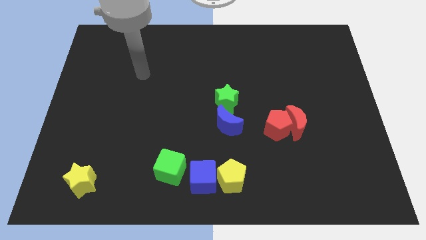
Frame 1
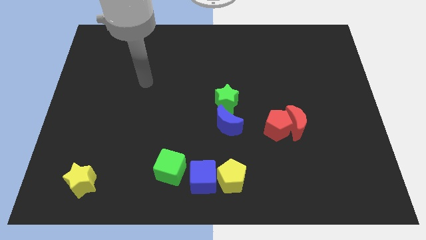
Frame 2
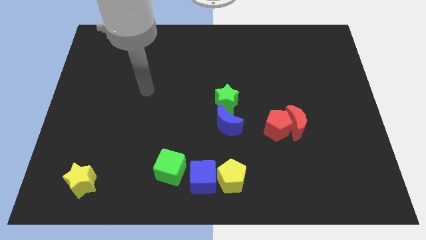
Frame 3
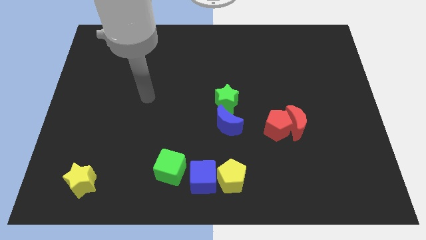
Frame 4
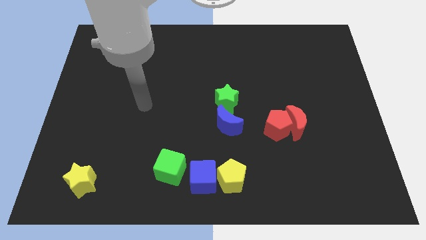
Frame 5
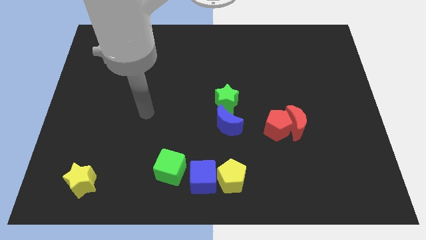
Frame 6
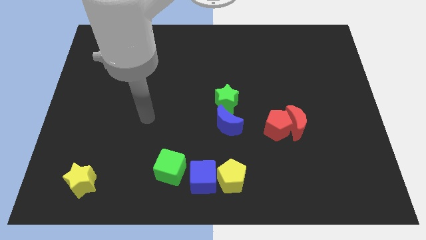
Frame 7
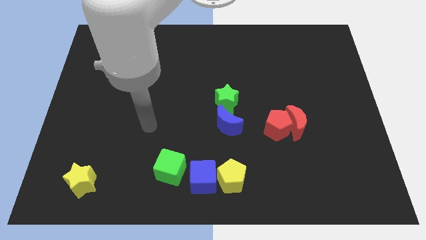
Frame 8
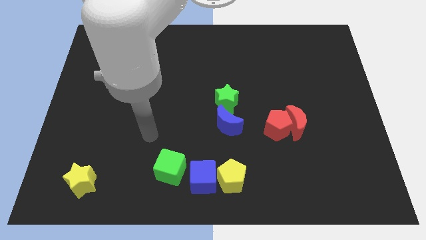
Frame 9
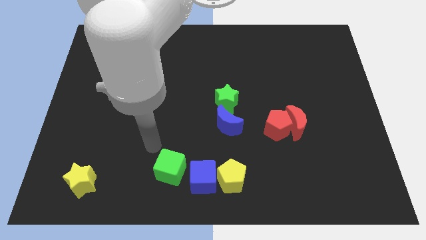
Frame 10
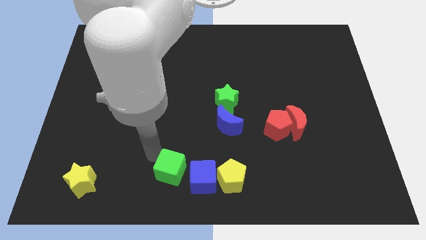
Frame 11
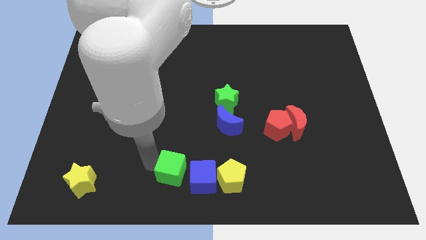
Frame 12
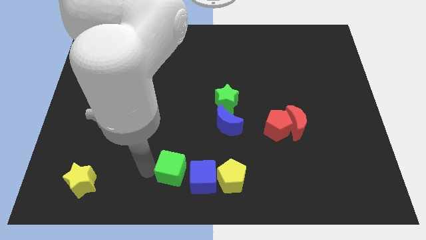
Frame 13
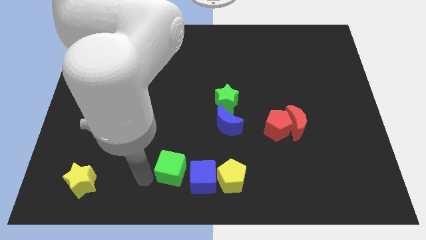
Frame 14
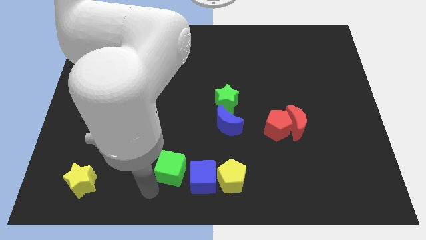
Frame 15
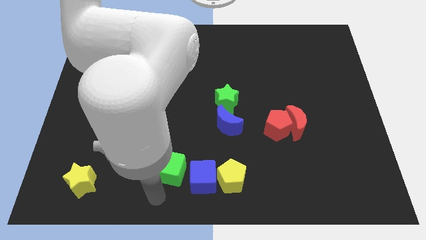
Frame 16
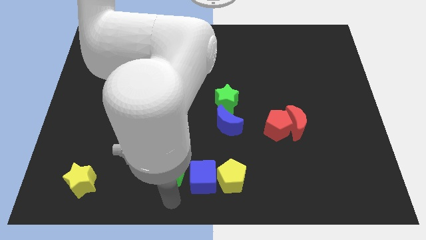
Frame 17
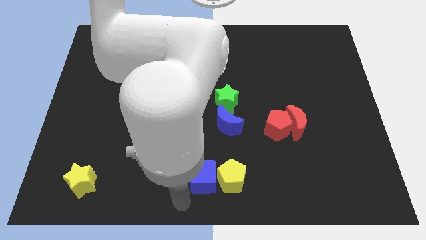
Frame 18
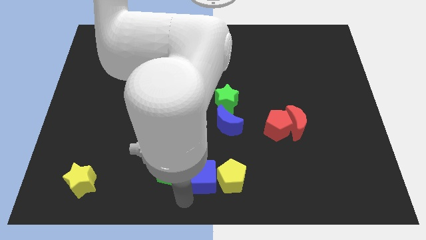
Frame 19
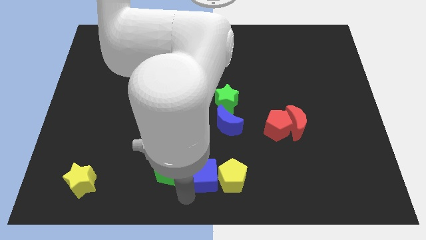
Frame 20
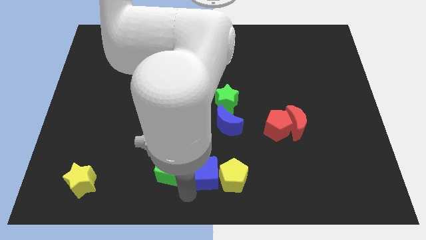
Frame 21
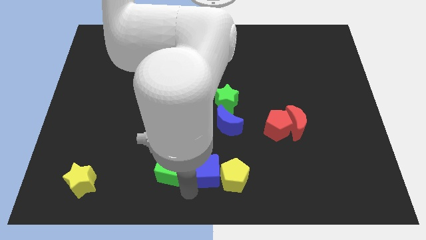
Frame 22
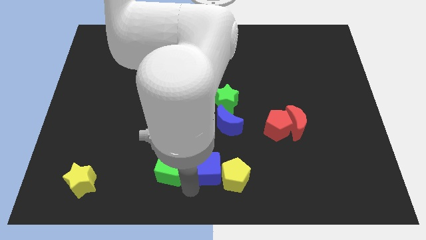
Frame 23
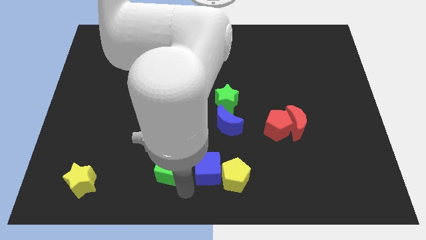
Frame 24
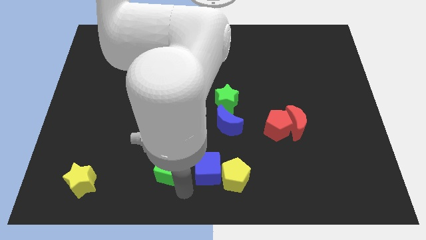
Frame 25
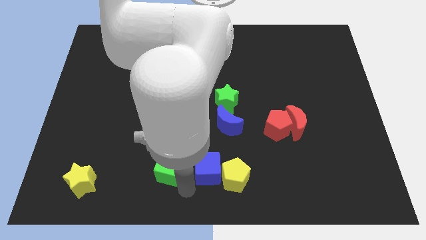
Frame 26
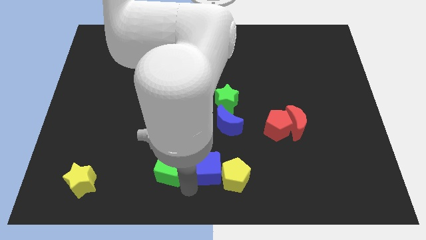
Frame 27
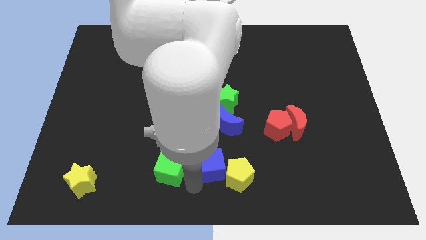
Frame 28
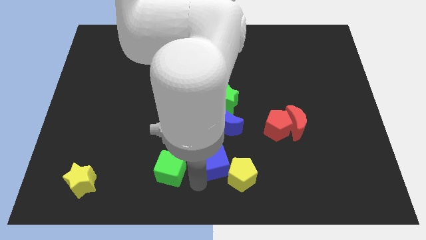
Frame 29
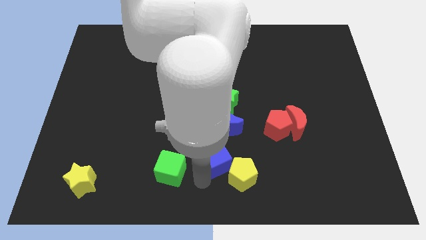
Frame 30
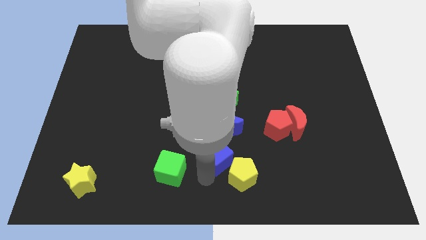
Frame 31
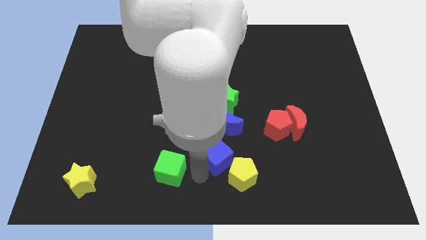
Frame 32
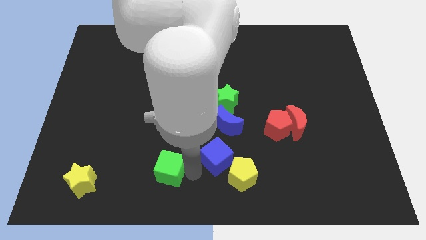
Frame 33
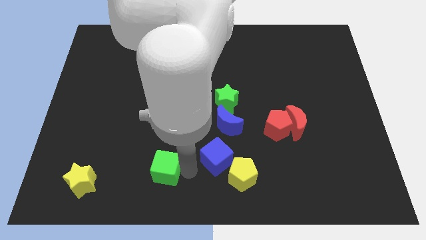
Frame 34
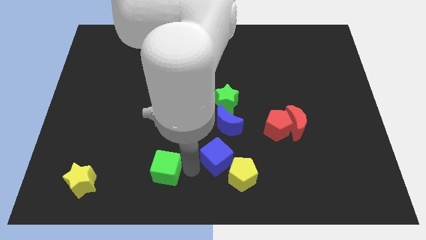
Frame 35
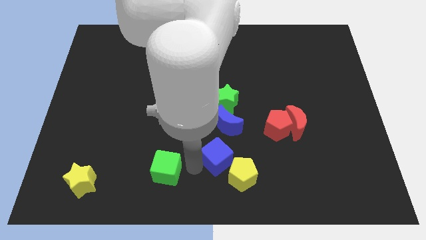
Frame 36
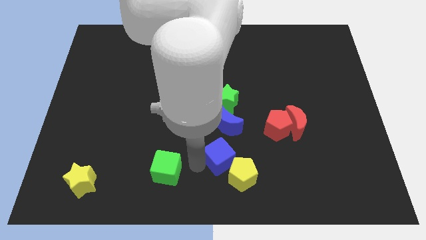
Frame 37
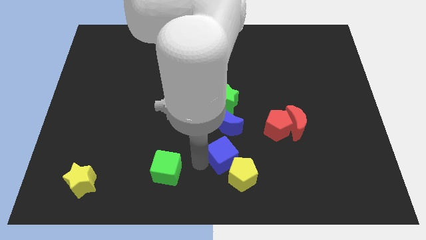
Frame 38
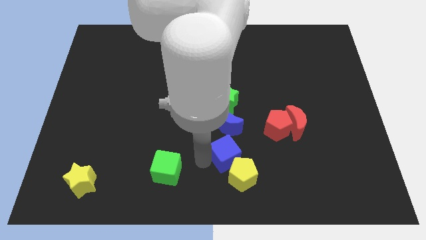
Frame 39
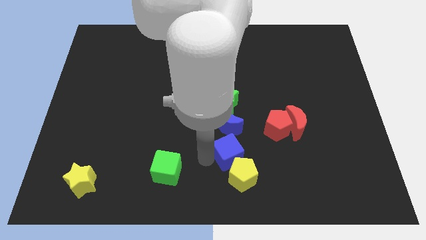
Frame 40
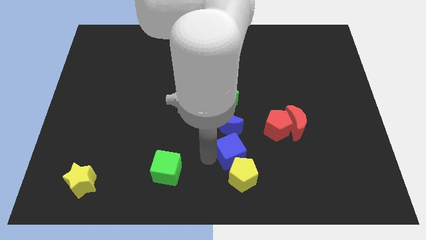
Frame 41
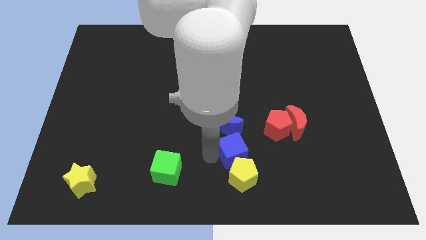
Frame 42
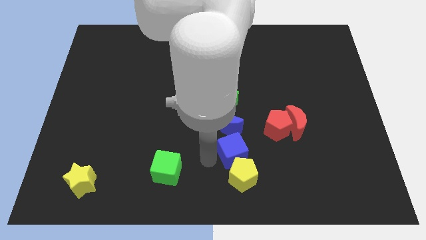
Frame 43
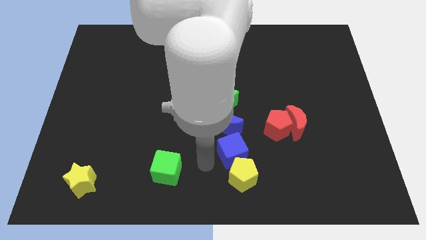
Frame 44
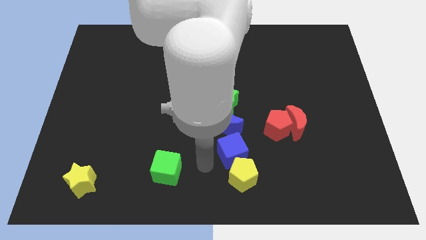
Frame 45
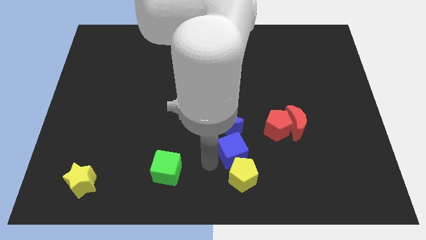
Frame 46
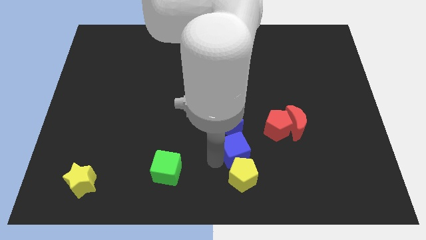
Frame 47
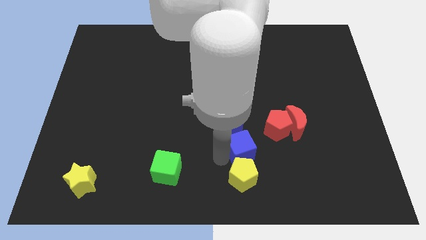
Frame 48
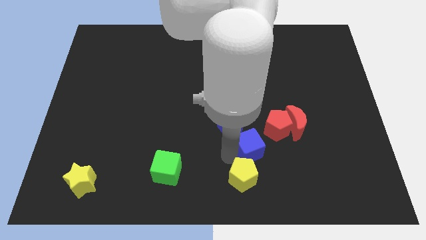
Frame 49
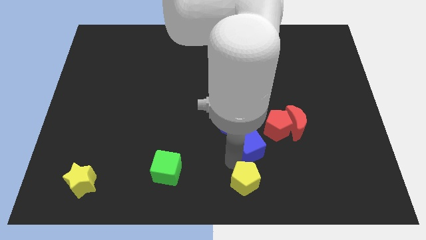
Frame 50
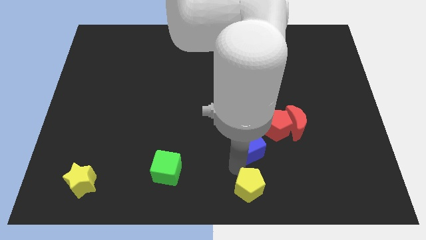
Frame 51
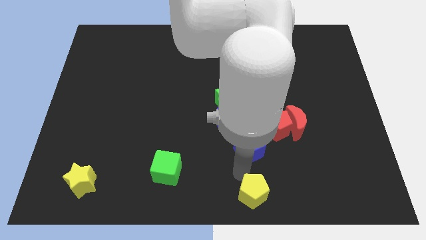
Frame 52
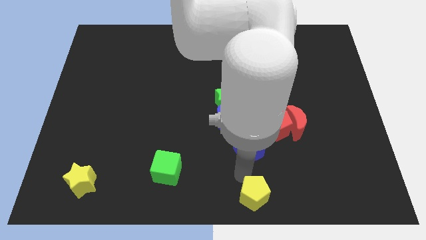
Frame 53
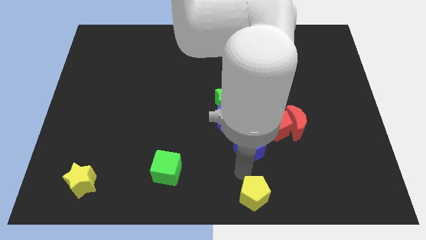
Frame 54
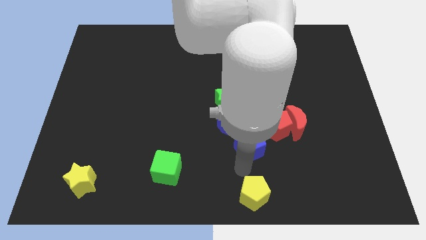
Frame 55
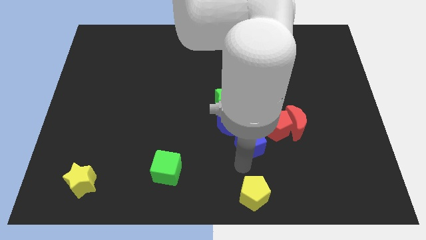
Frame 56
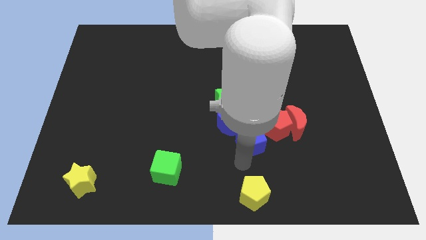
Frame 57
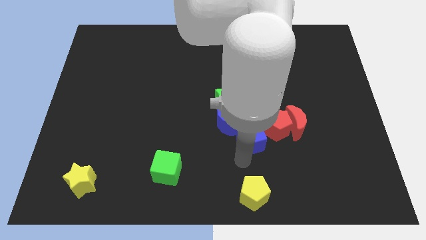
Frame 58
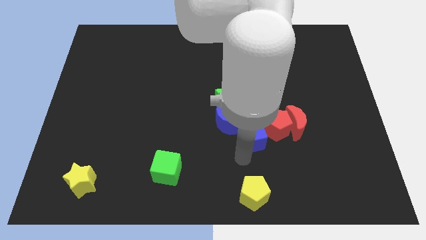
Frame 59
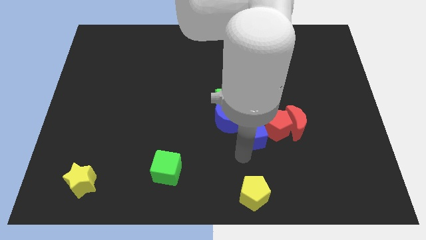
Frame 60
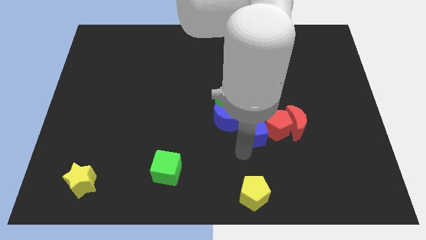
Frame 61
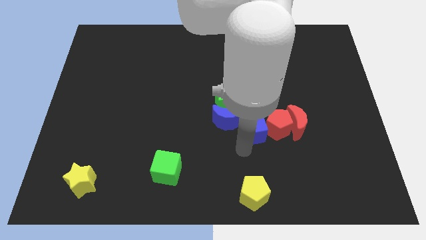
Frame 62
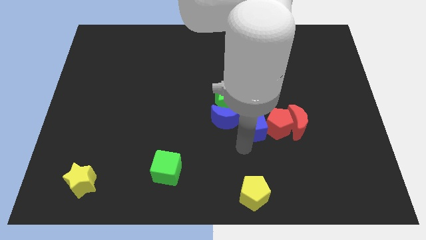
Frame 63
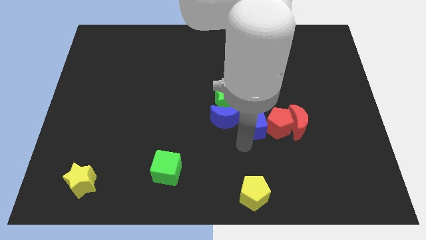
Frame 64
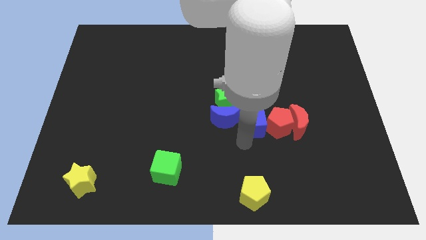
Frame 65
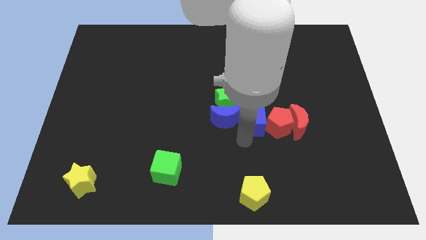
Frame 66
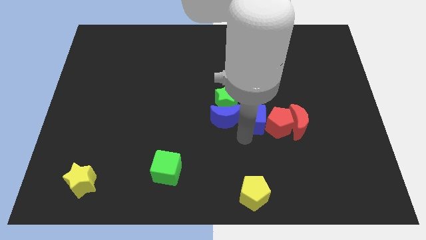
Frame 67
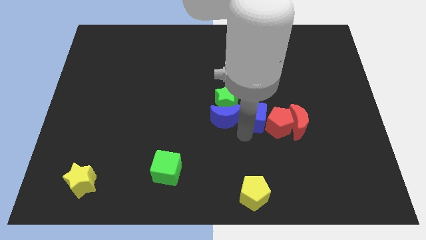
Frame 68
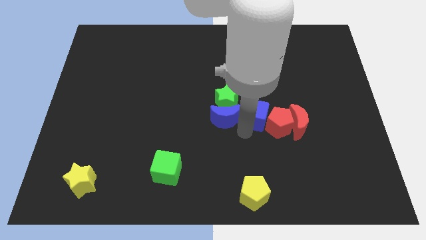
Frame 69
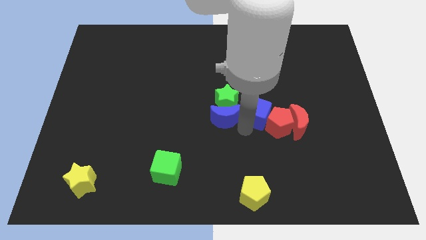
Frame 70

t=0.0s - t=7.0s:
slide the blue cube upwards and then right

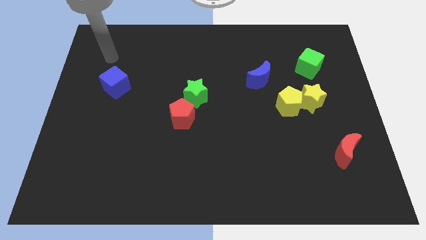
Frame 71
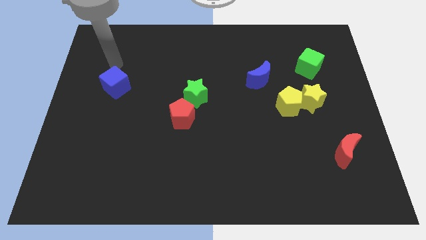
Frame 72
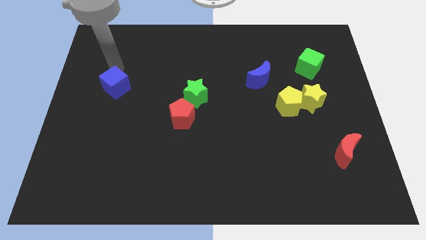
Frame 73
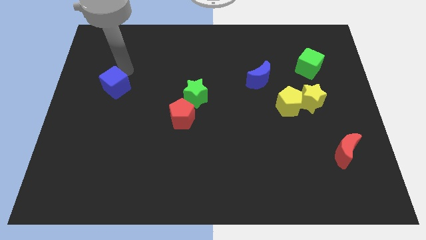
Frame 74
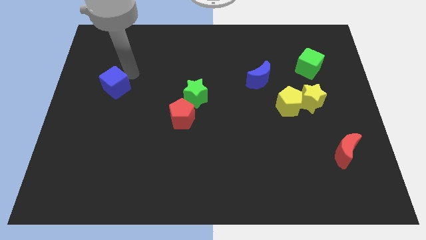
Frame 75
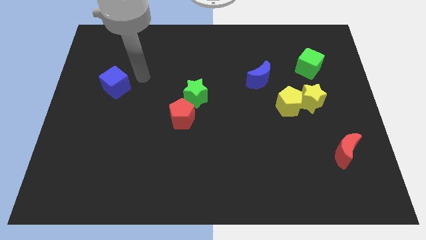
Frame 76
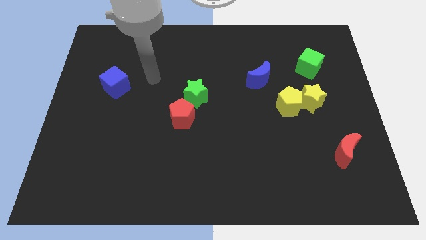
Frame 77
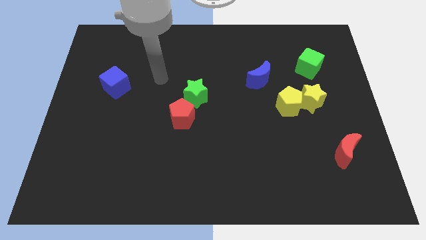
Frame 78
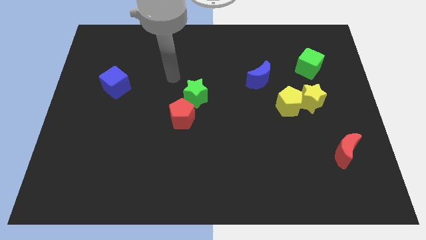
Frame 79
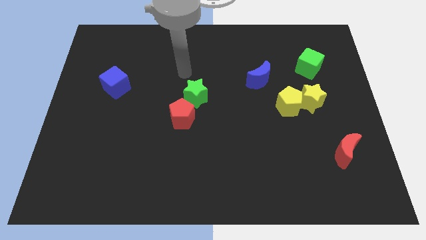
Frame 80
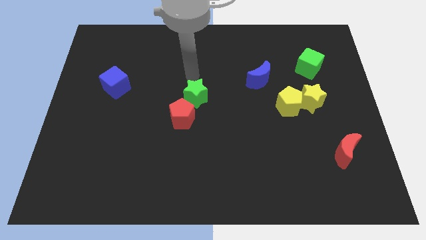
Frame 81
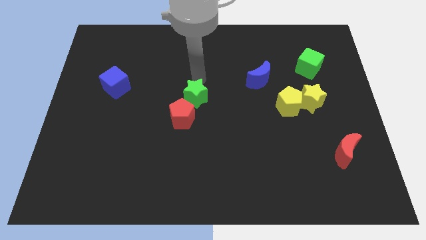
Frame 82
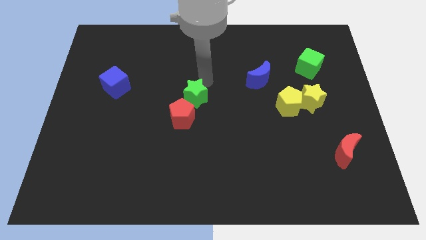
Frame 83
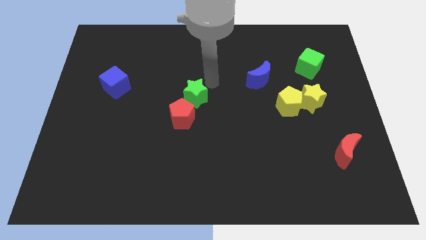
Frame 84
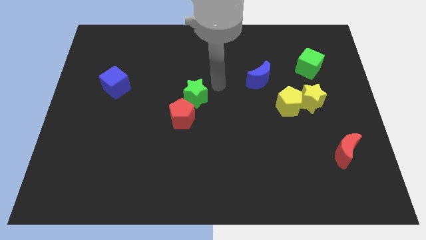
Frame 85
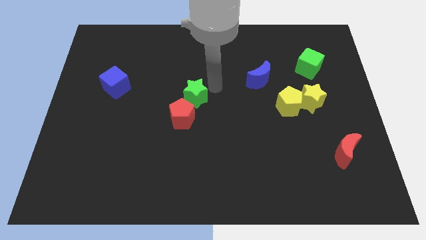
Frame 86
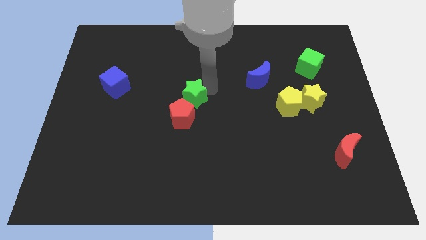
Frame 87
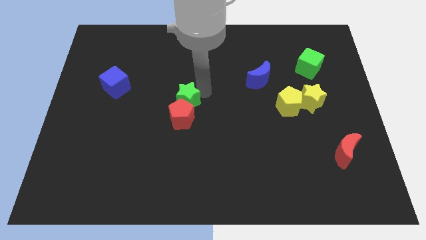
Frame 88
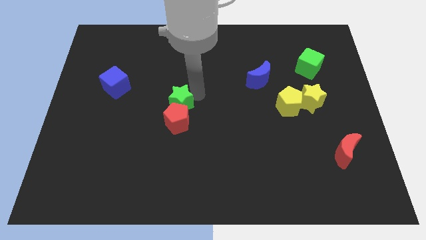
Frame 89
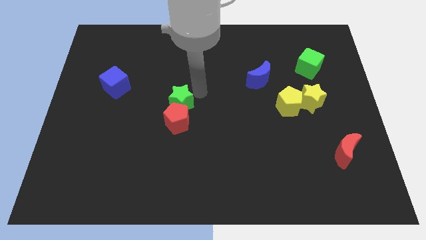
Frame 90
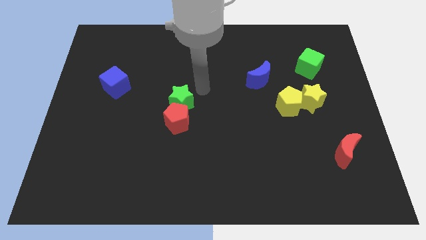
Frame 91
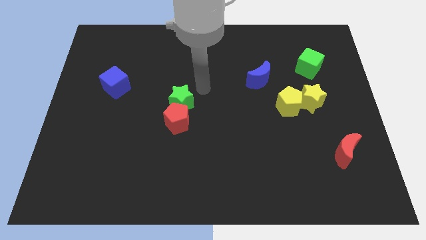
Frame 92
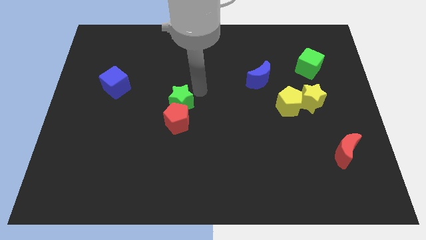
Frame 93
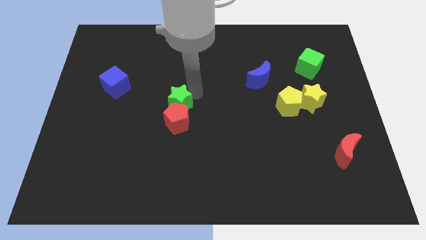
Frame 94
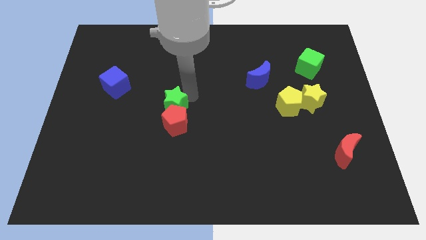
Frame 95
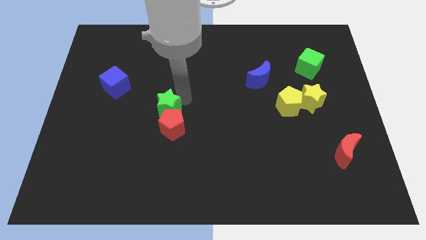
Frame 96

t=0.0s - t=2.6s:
slide the green star downwards and left somewhat
